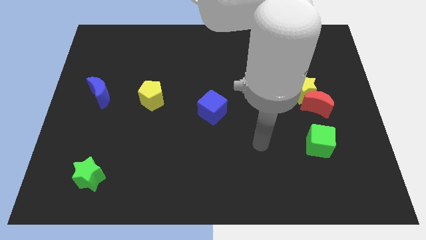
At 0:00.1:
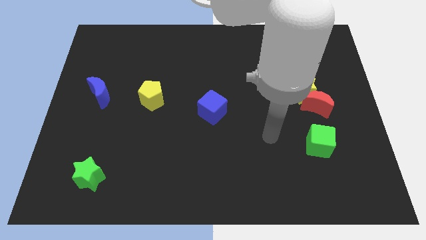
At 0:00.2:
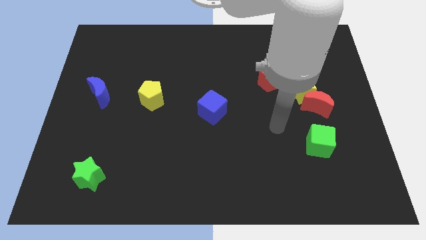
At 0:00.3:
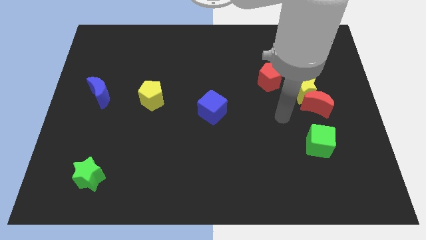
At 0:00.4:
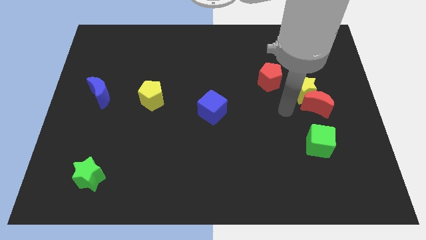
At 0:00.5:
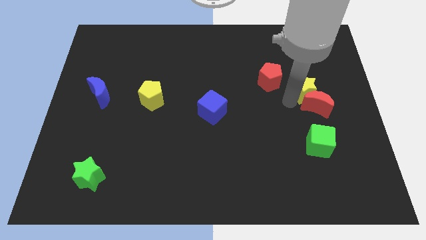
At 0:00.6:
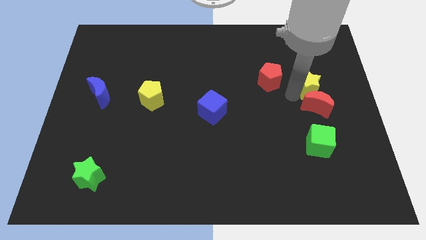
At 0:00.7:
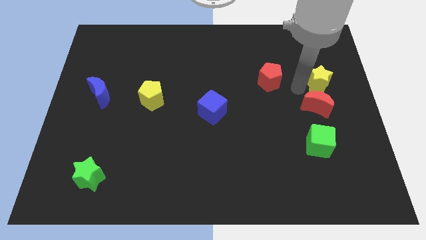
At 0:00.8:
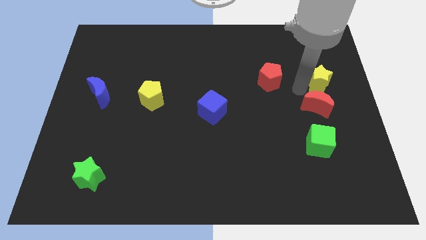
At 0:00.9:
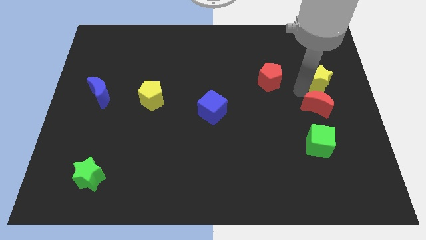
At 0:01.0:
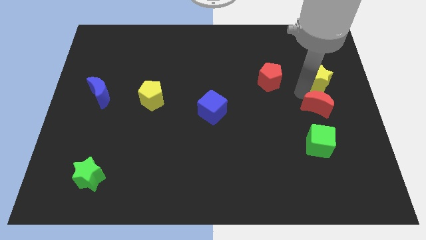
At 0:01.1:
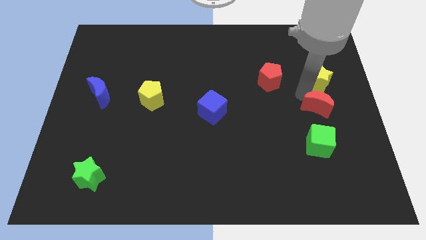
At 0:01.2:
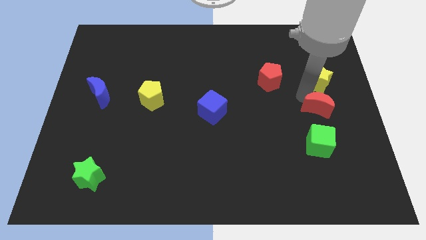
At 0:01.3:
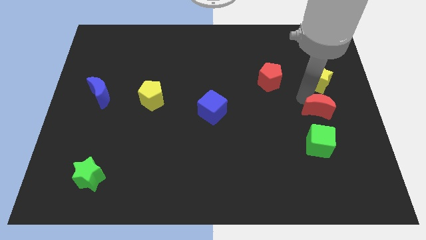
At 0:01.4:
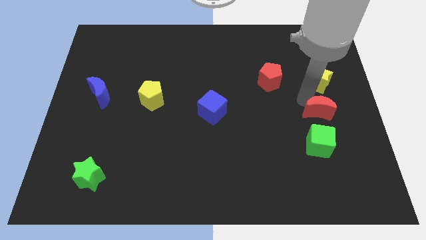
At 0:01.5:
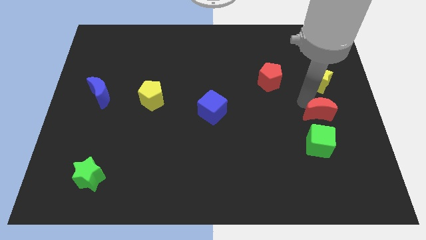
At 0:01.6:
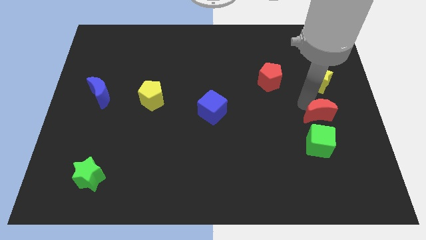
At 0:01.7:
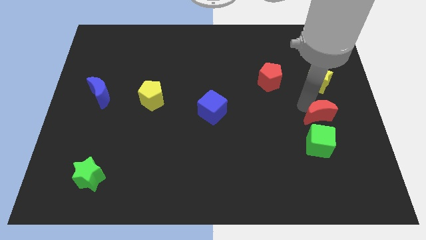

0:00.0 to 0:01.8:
move the red moon away from the yellow star

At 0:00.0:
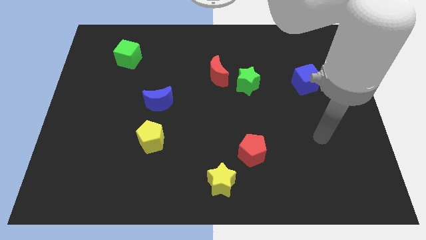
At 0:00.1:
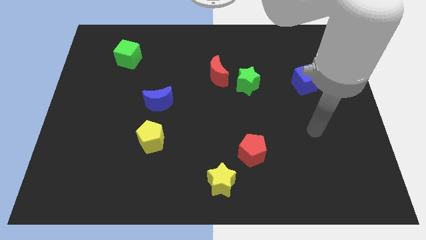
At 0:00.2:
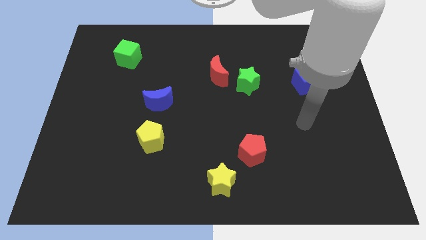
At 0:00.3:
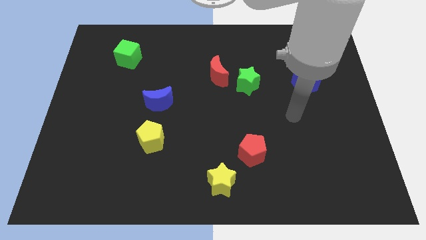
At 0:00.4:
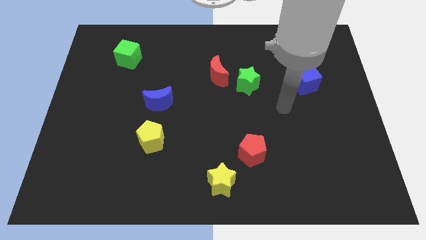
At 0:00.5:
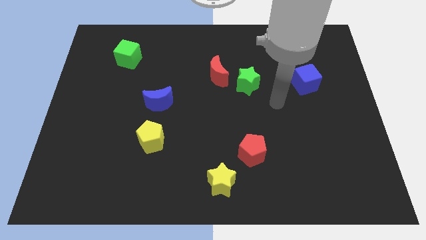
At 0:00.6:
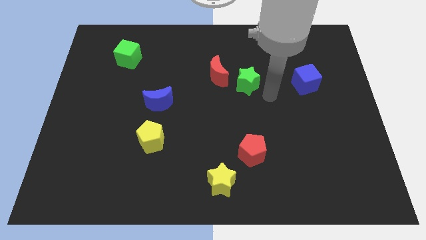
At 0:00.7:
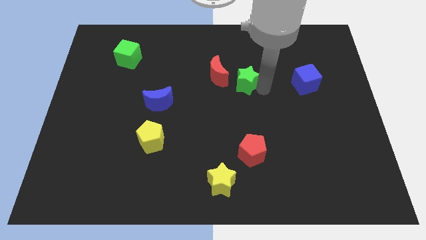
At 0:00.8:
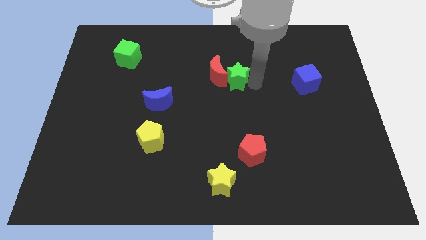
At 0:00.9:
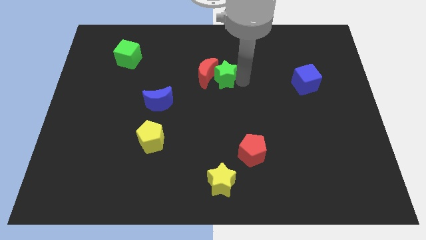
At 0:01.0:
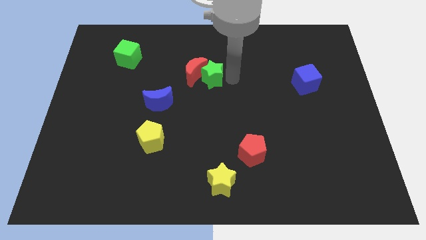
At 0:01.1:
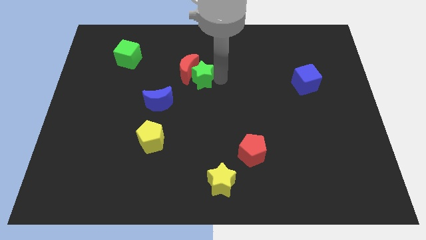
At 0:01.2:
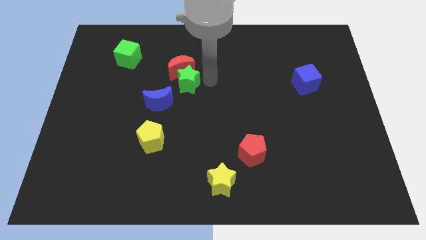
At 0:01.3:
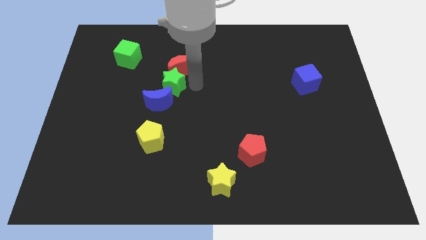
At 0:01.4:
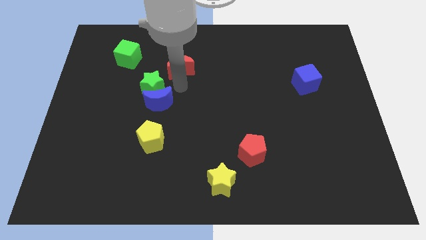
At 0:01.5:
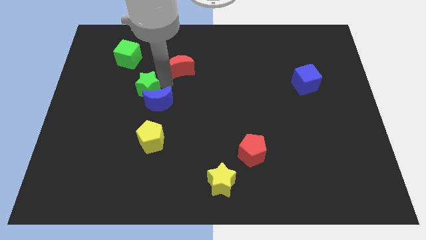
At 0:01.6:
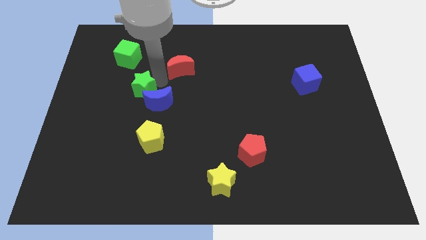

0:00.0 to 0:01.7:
move the red moon away from the green star

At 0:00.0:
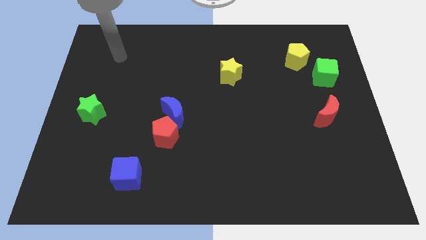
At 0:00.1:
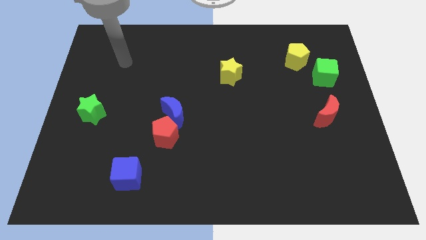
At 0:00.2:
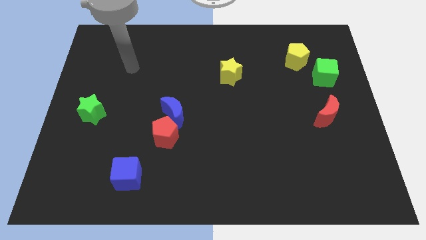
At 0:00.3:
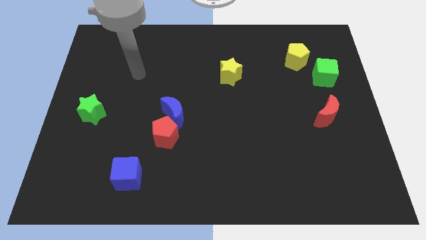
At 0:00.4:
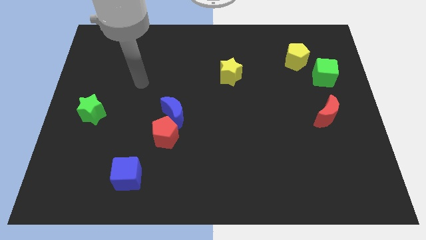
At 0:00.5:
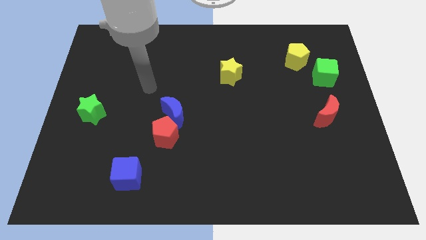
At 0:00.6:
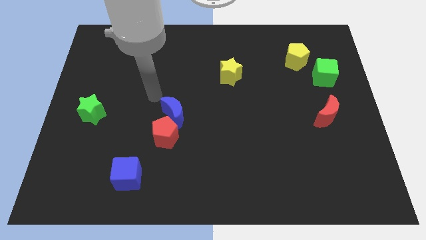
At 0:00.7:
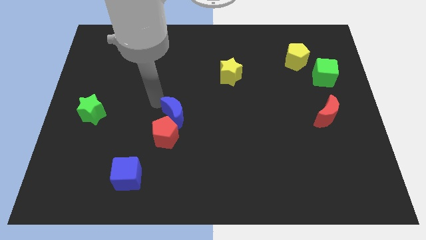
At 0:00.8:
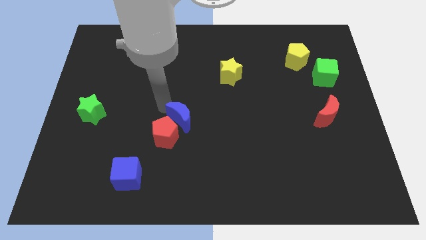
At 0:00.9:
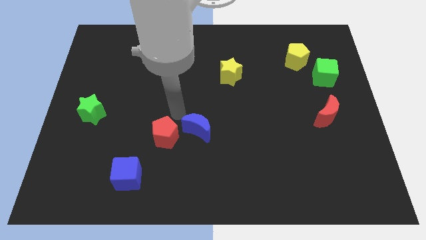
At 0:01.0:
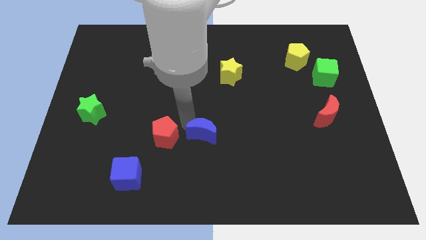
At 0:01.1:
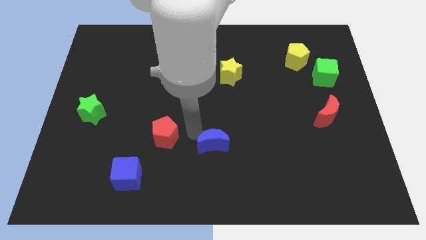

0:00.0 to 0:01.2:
move the red pentagon away from the blue moon

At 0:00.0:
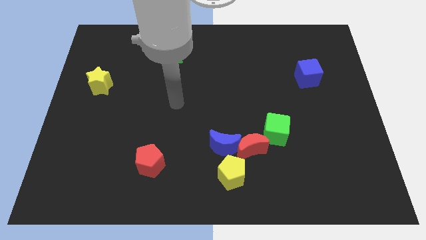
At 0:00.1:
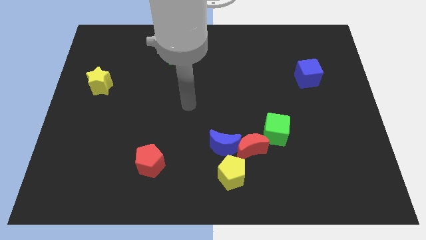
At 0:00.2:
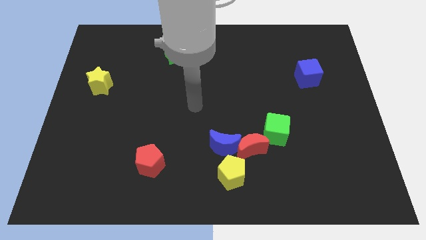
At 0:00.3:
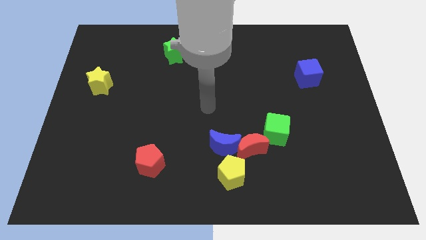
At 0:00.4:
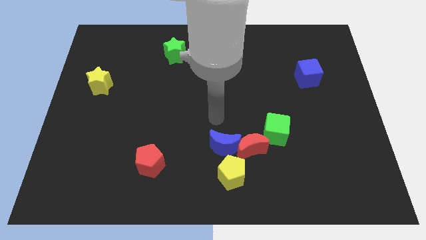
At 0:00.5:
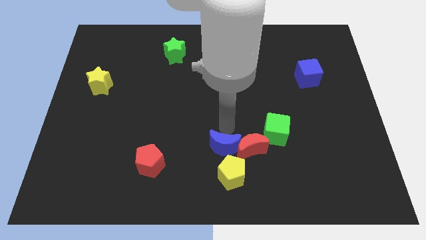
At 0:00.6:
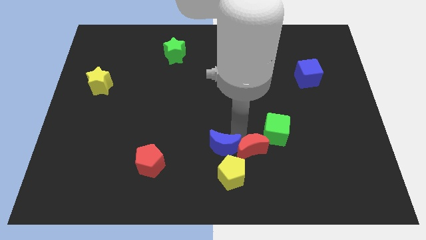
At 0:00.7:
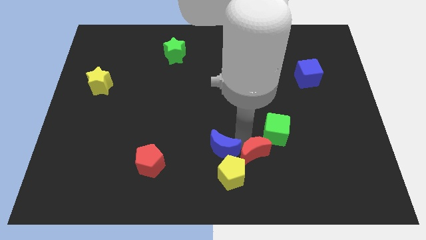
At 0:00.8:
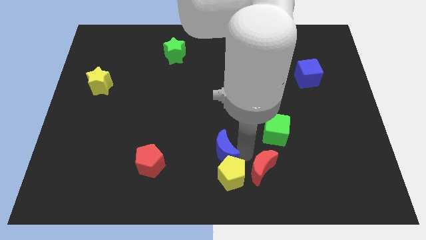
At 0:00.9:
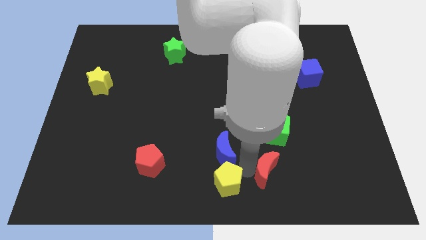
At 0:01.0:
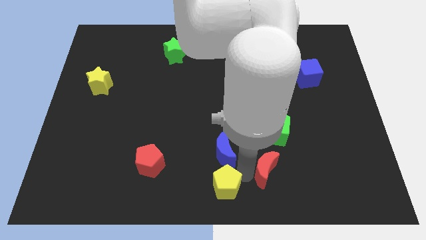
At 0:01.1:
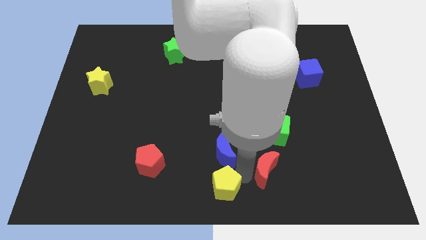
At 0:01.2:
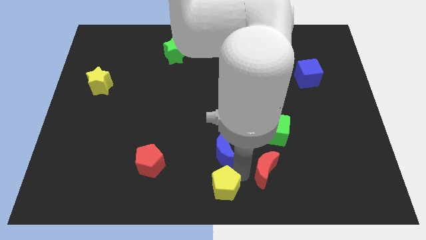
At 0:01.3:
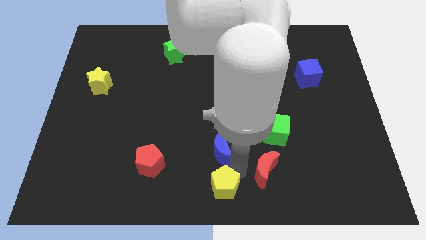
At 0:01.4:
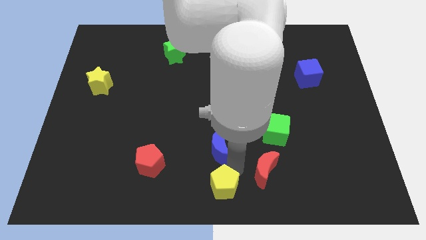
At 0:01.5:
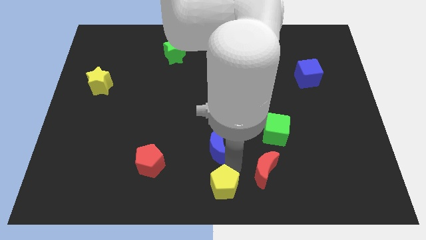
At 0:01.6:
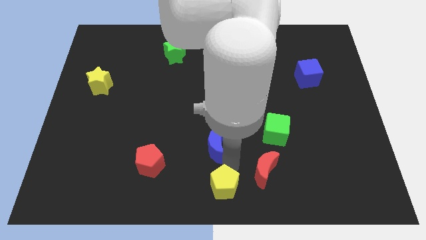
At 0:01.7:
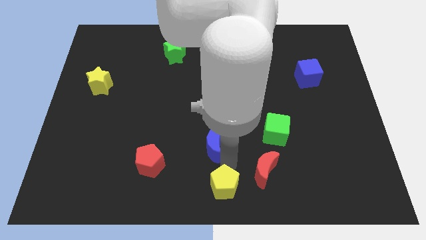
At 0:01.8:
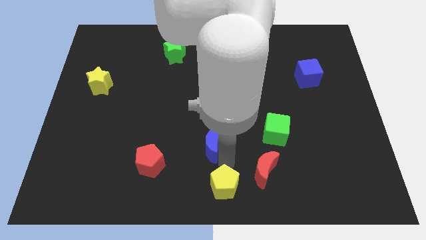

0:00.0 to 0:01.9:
separate the blue moon from the red moon and yellow pentagon

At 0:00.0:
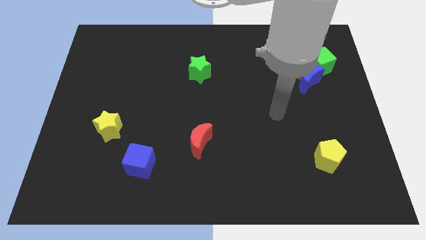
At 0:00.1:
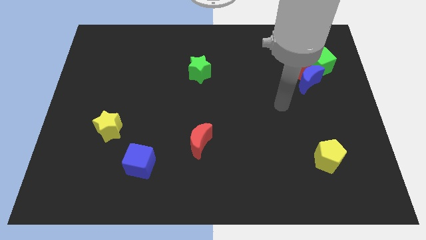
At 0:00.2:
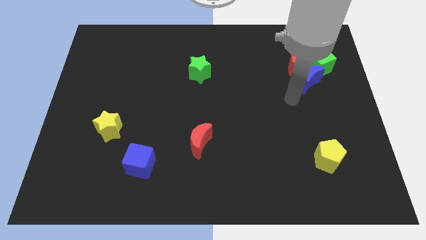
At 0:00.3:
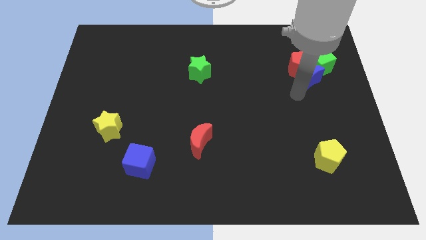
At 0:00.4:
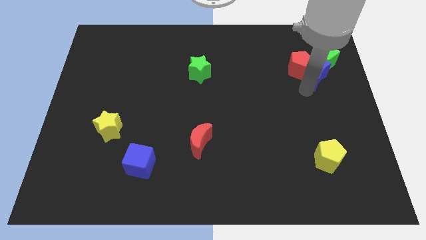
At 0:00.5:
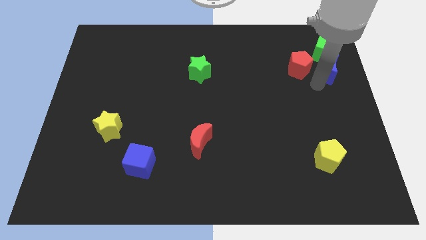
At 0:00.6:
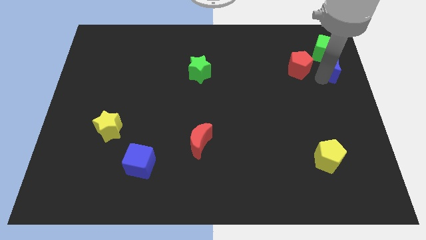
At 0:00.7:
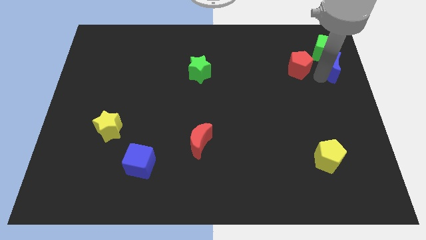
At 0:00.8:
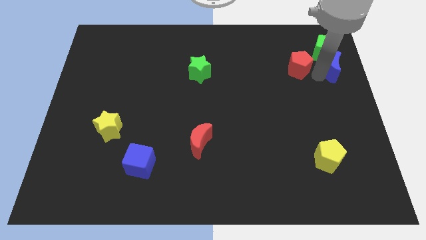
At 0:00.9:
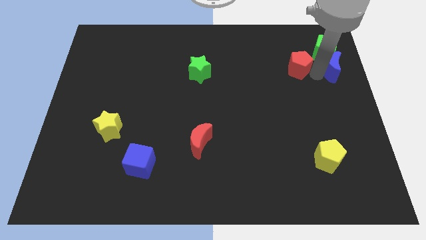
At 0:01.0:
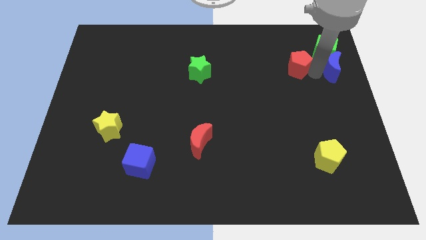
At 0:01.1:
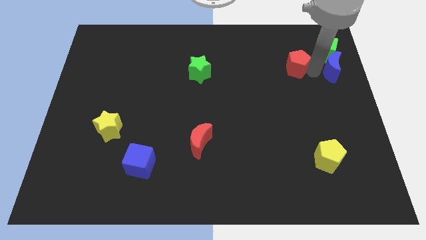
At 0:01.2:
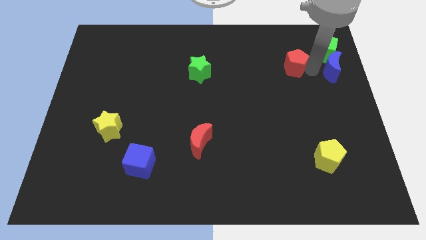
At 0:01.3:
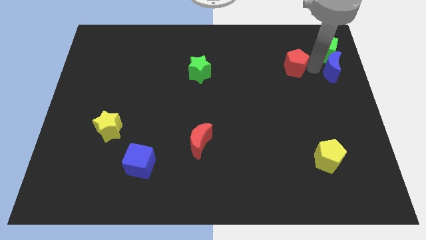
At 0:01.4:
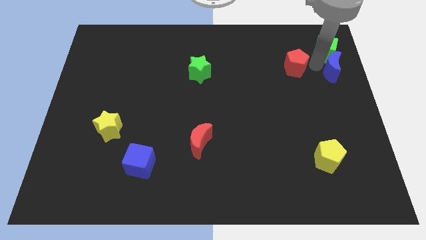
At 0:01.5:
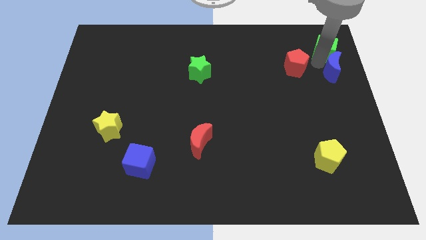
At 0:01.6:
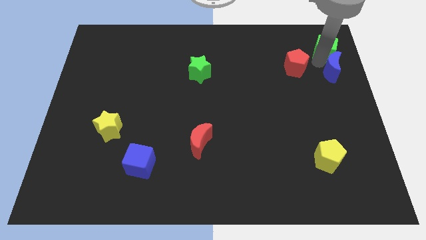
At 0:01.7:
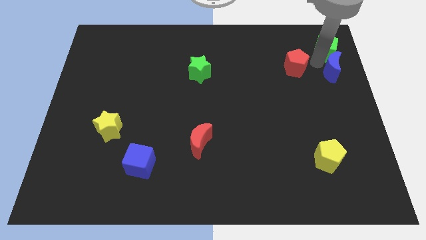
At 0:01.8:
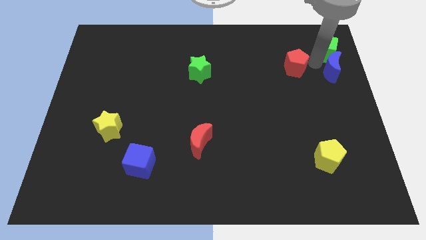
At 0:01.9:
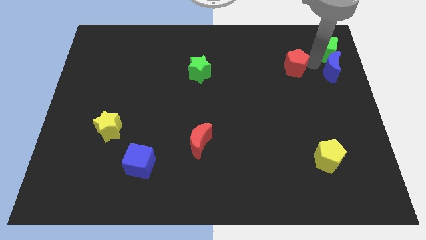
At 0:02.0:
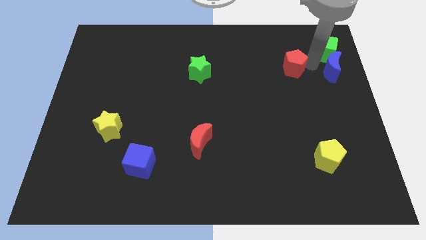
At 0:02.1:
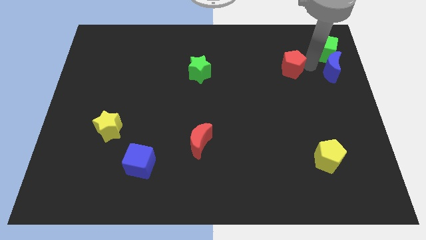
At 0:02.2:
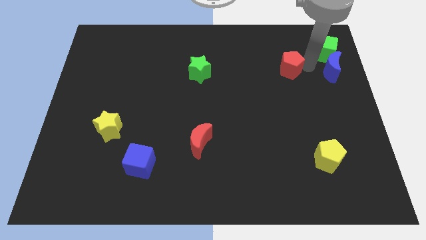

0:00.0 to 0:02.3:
separate the red pentagon from the blue moon and green cube
